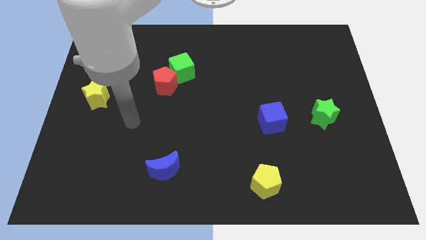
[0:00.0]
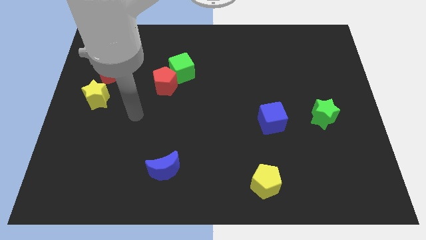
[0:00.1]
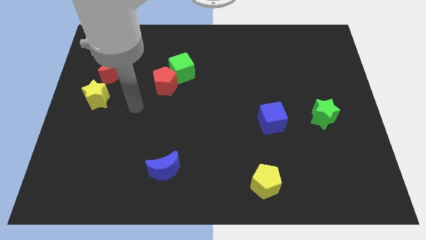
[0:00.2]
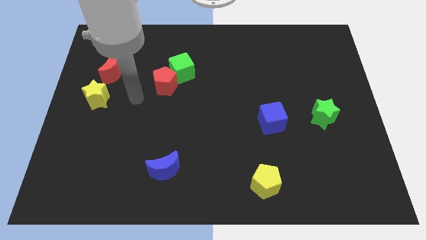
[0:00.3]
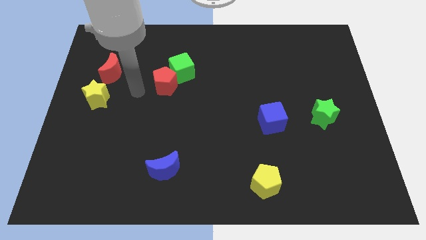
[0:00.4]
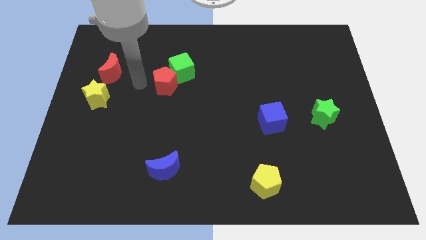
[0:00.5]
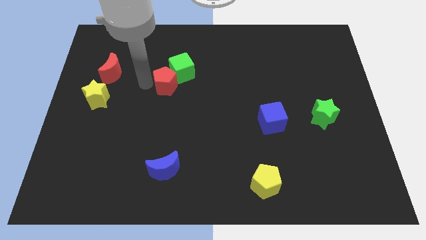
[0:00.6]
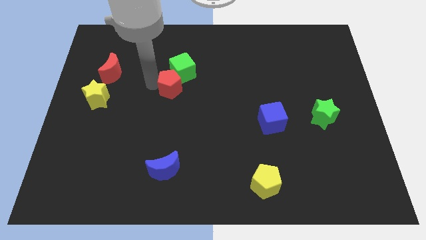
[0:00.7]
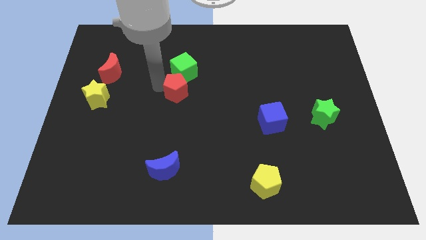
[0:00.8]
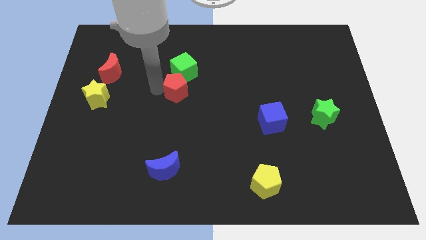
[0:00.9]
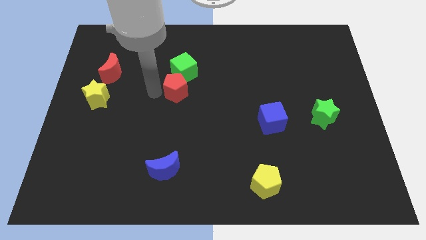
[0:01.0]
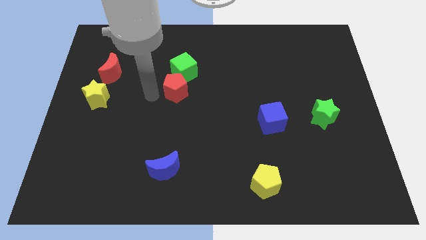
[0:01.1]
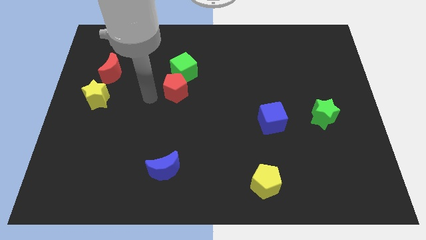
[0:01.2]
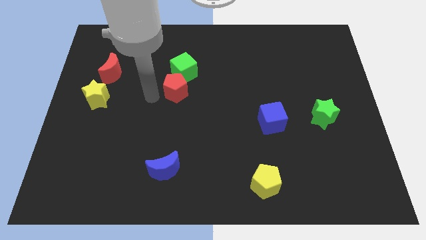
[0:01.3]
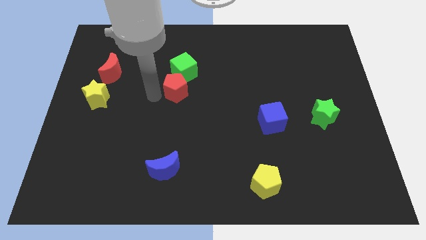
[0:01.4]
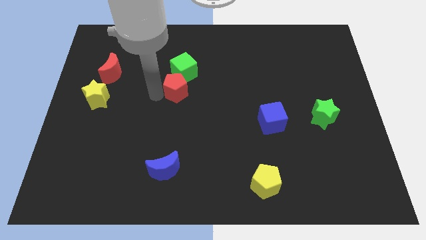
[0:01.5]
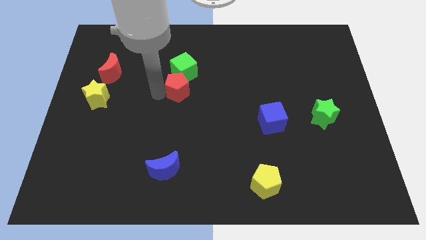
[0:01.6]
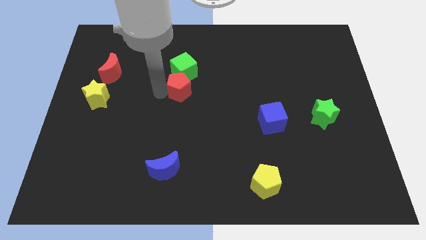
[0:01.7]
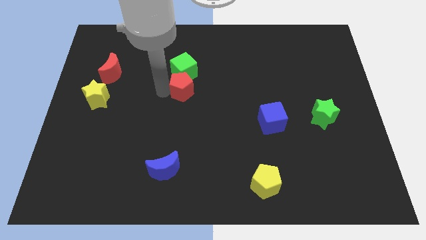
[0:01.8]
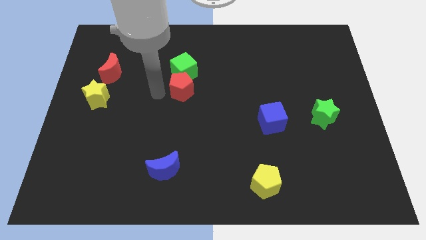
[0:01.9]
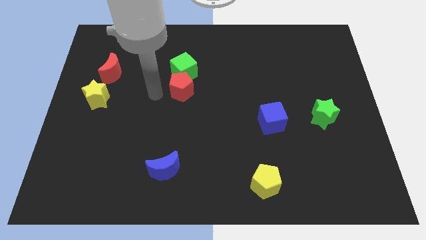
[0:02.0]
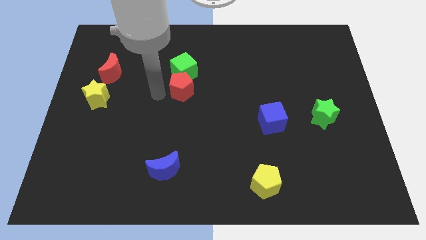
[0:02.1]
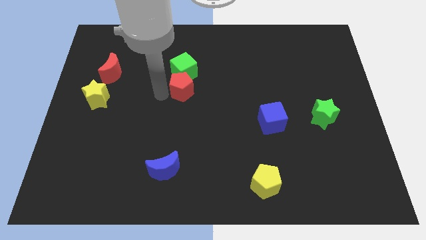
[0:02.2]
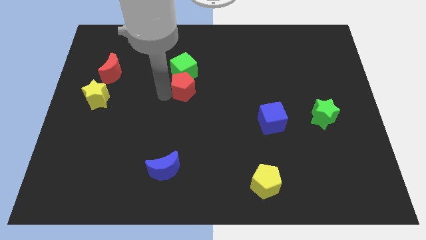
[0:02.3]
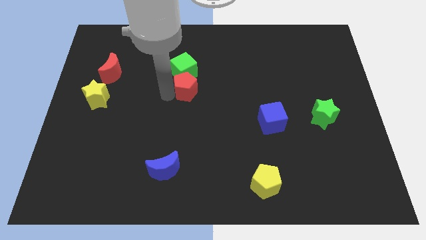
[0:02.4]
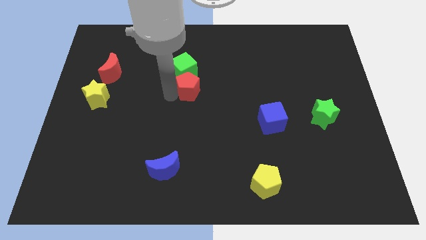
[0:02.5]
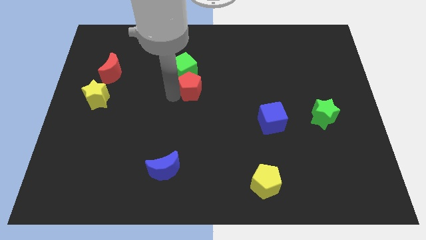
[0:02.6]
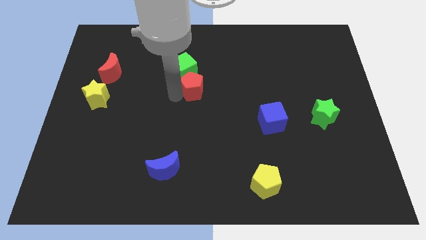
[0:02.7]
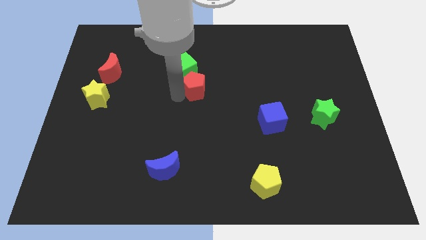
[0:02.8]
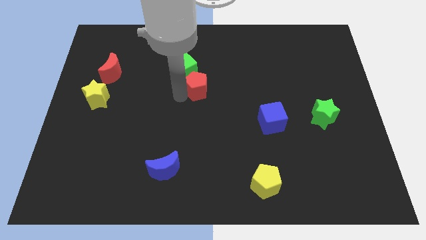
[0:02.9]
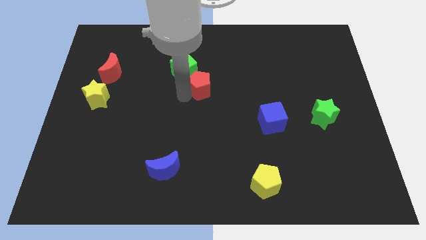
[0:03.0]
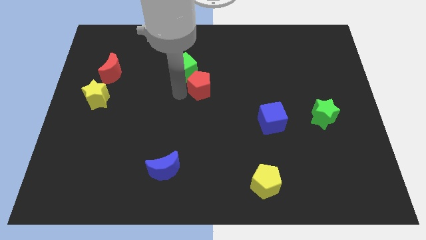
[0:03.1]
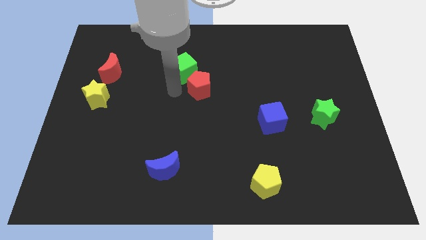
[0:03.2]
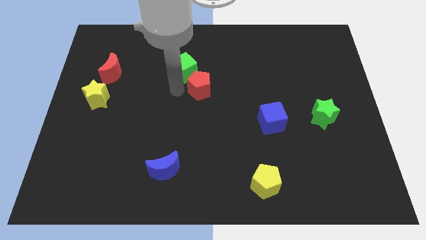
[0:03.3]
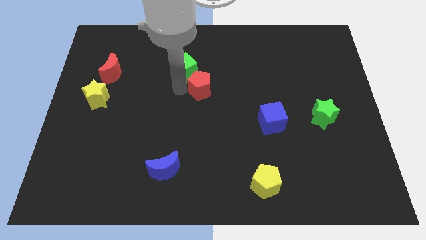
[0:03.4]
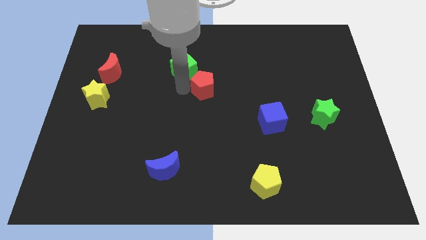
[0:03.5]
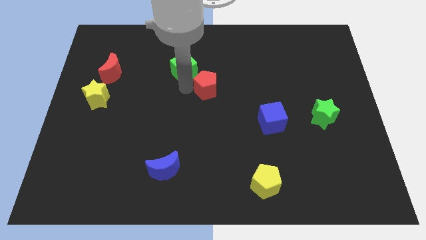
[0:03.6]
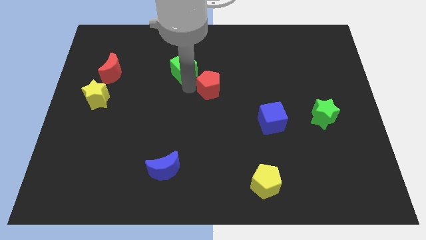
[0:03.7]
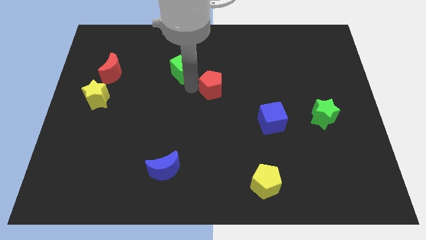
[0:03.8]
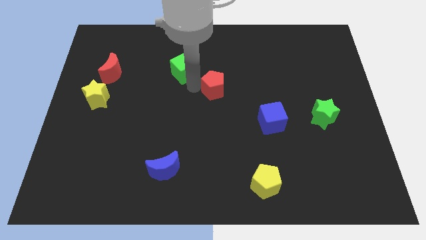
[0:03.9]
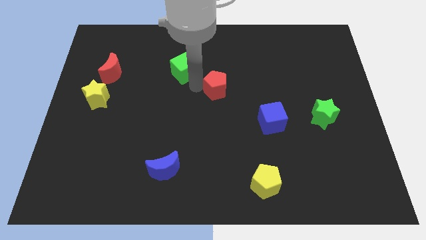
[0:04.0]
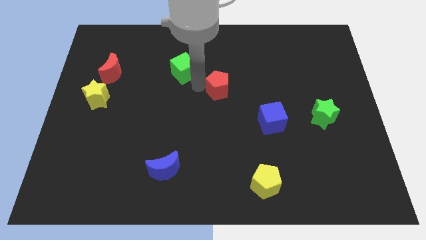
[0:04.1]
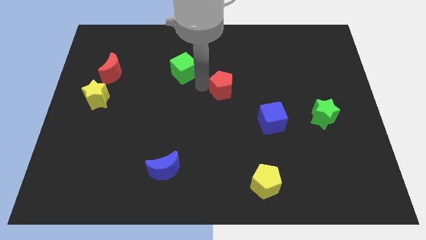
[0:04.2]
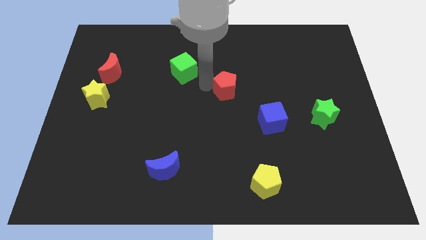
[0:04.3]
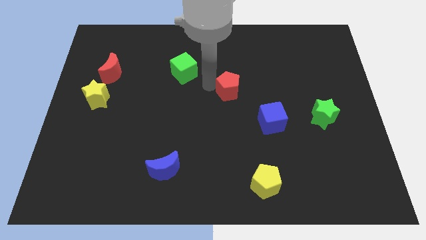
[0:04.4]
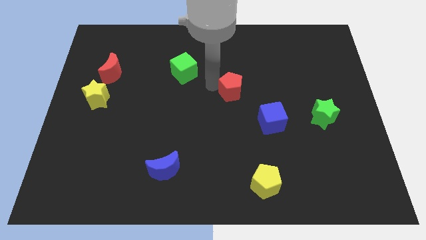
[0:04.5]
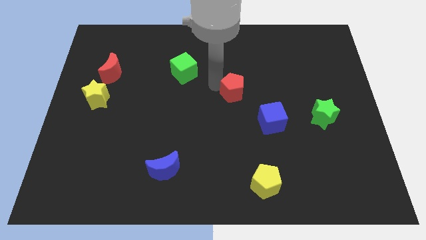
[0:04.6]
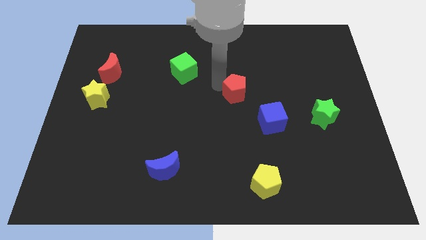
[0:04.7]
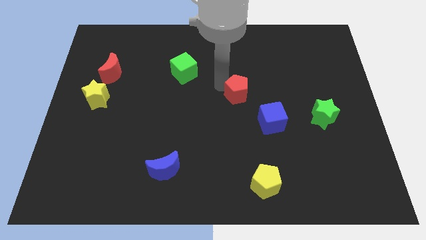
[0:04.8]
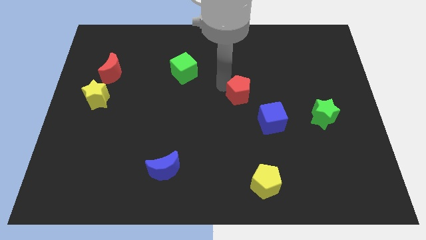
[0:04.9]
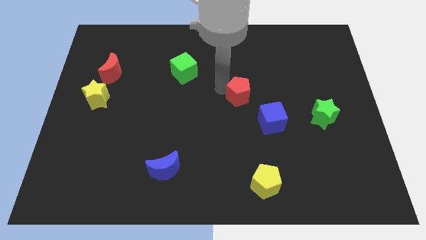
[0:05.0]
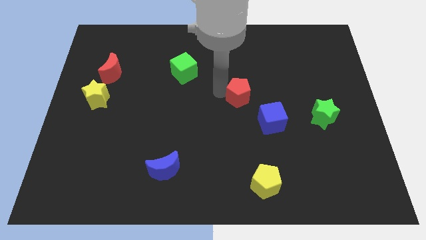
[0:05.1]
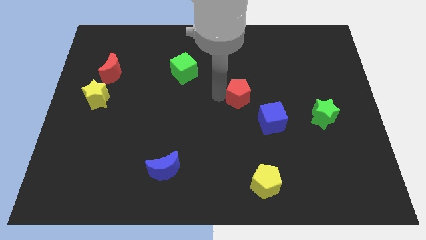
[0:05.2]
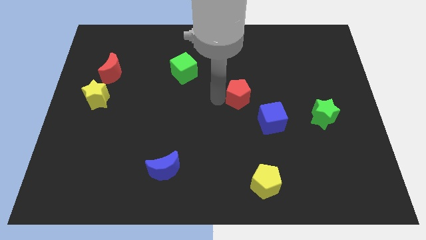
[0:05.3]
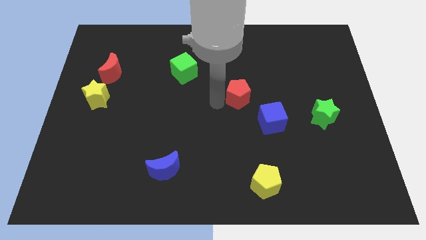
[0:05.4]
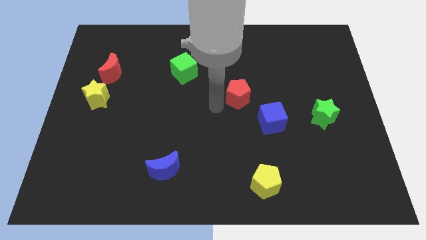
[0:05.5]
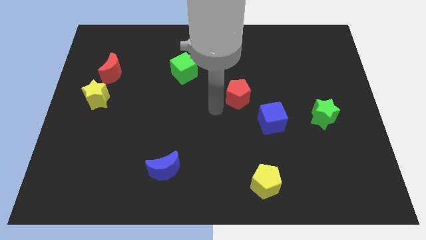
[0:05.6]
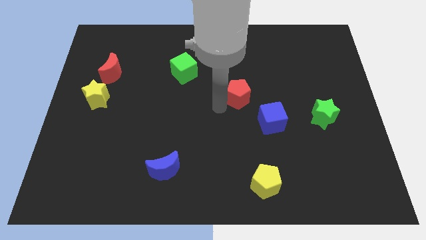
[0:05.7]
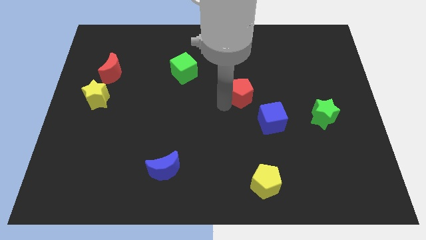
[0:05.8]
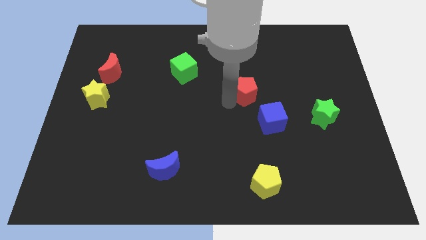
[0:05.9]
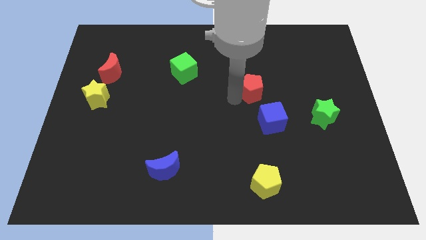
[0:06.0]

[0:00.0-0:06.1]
push the red pentagon to the right

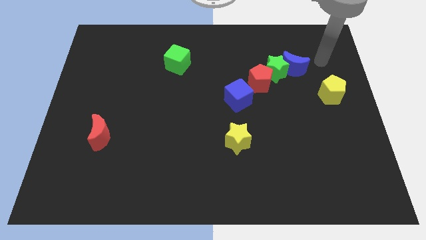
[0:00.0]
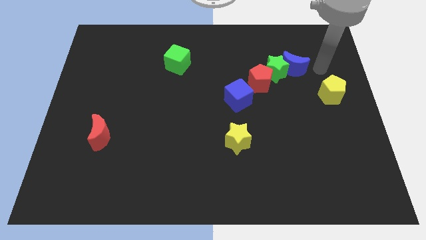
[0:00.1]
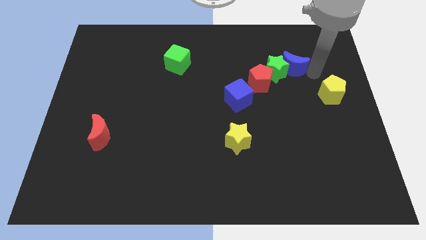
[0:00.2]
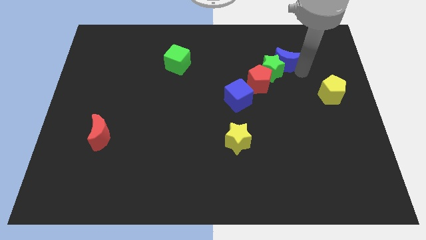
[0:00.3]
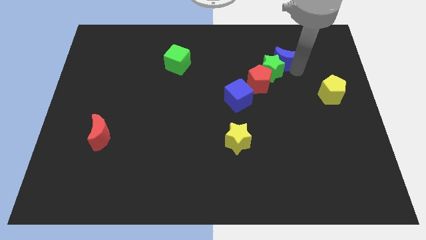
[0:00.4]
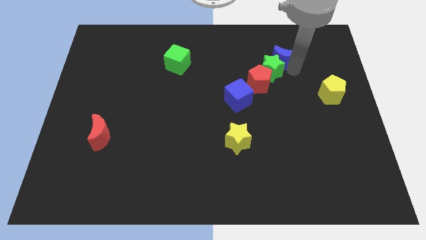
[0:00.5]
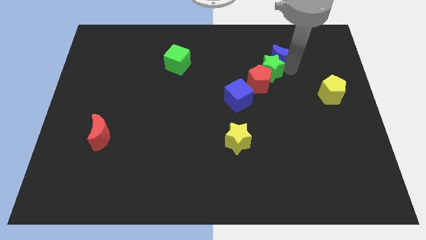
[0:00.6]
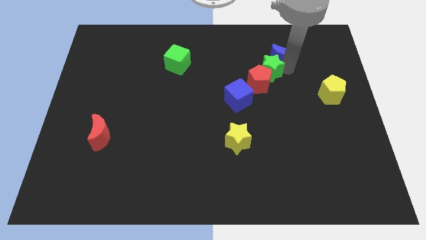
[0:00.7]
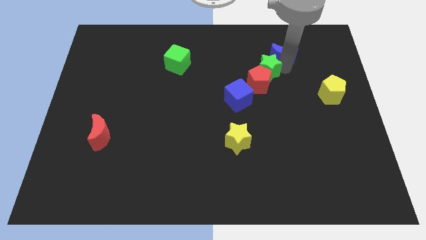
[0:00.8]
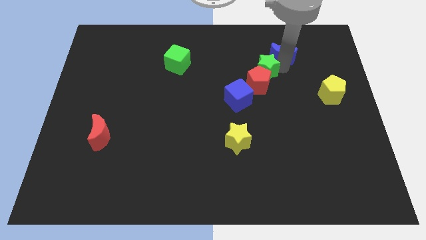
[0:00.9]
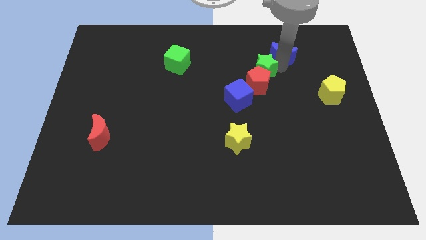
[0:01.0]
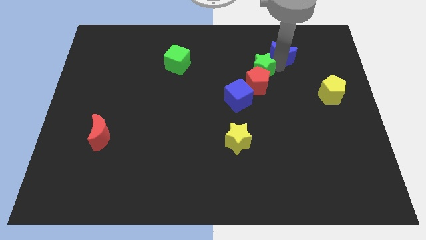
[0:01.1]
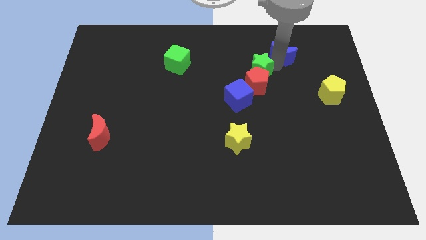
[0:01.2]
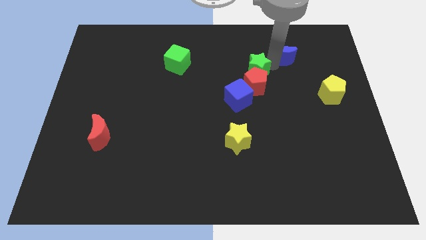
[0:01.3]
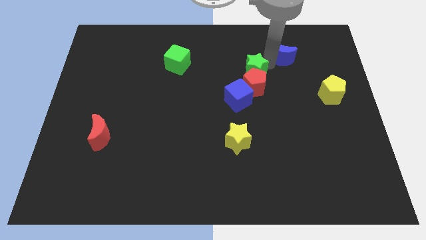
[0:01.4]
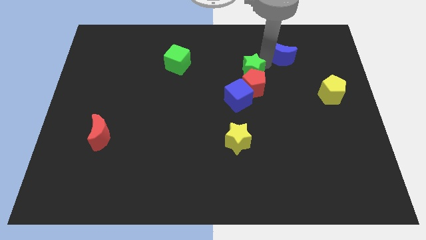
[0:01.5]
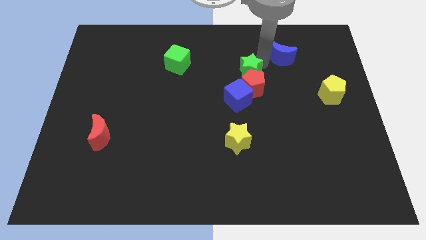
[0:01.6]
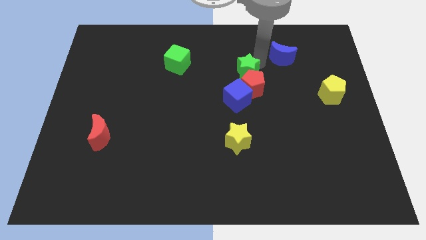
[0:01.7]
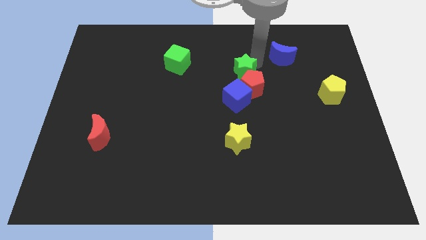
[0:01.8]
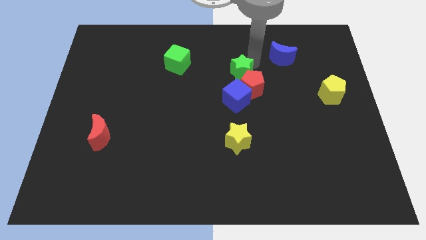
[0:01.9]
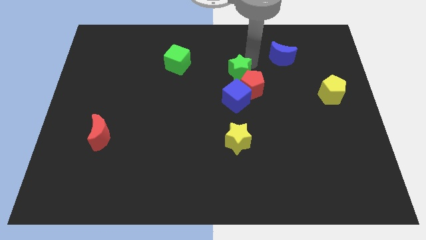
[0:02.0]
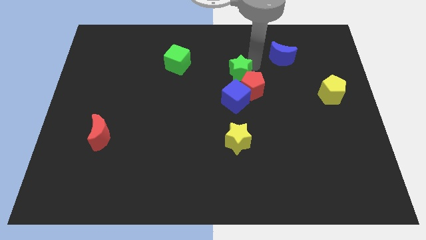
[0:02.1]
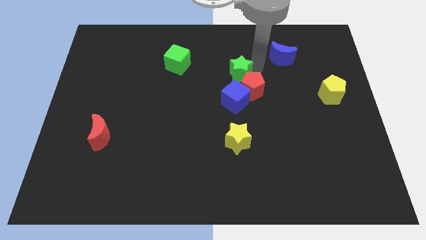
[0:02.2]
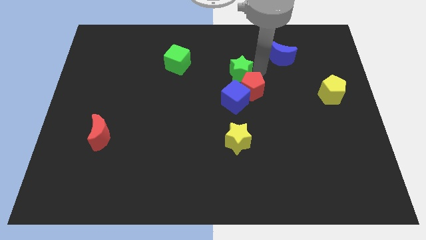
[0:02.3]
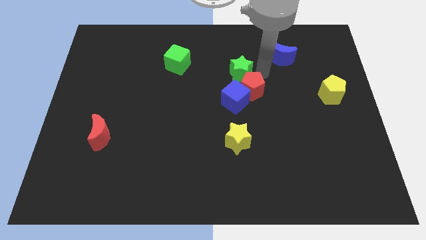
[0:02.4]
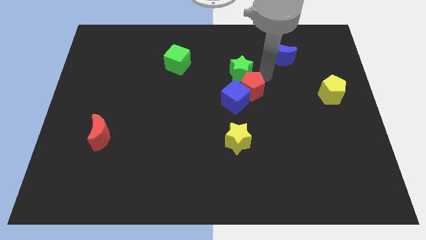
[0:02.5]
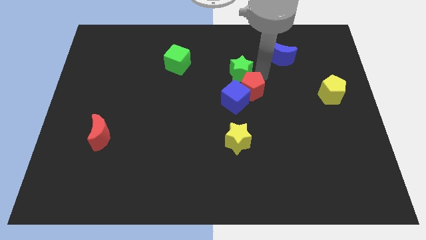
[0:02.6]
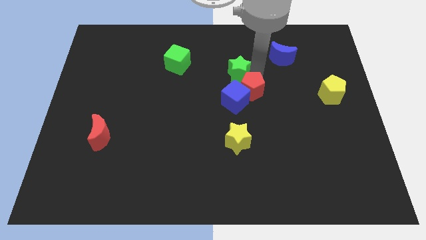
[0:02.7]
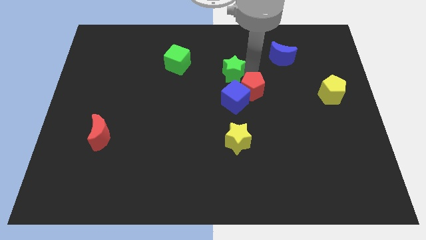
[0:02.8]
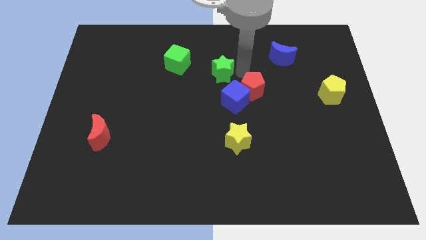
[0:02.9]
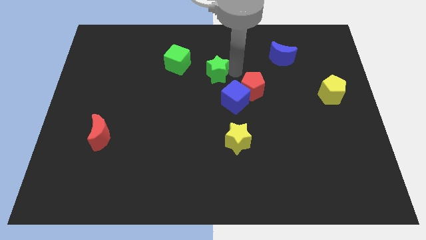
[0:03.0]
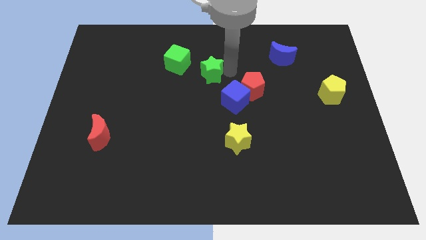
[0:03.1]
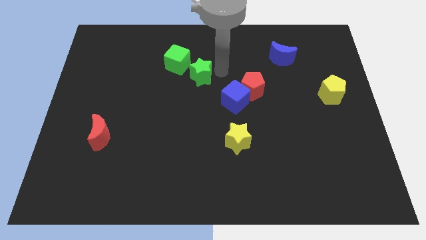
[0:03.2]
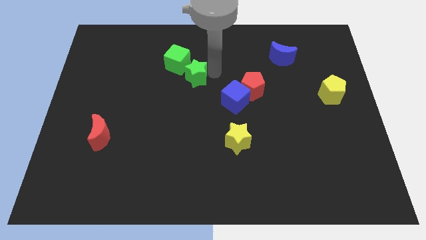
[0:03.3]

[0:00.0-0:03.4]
push the green star left
